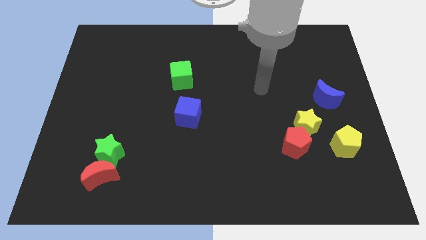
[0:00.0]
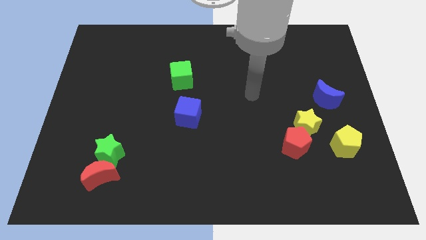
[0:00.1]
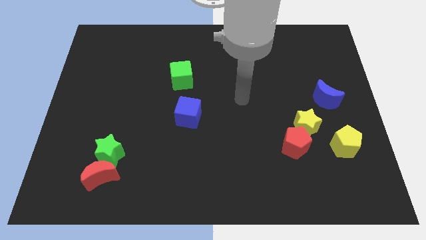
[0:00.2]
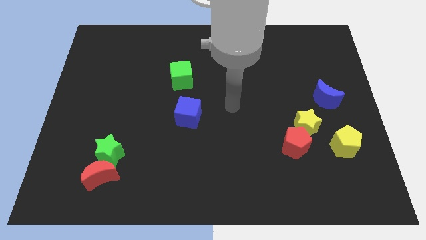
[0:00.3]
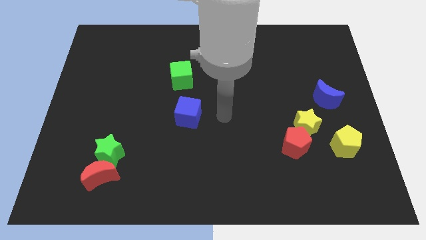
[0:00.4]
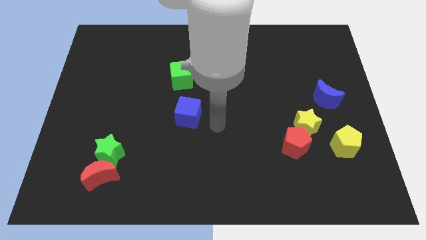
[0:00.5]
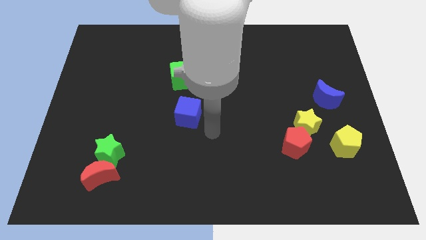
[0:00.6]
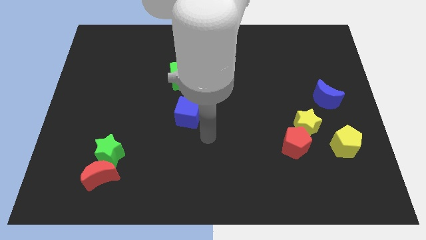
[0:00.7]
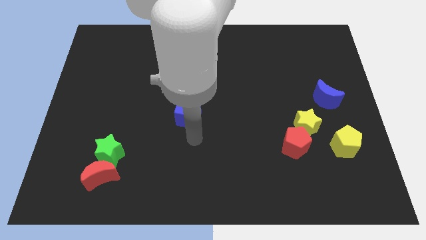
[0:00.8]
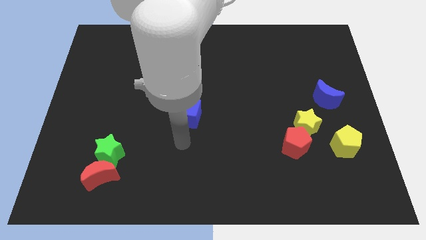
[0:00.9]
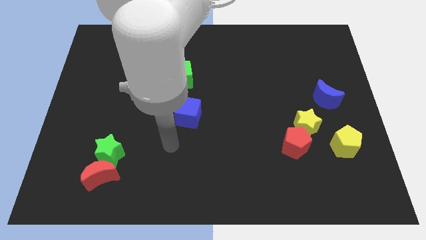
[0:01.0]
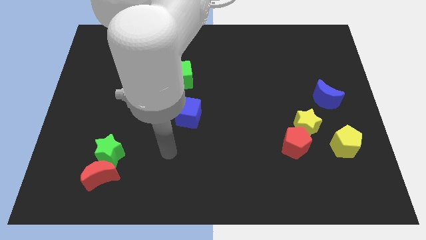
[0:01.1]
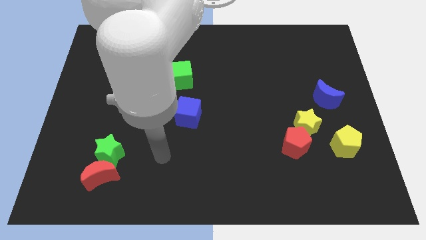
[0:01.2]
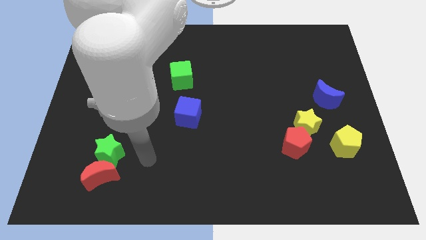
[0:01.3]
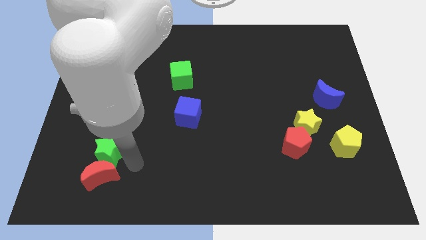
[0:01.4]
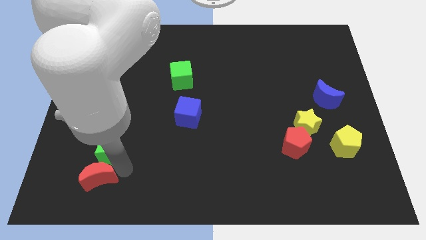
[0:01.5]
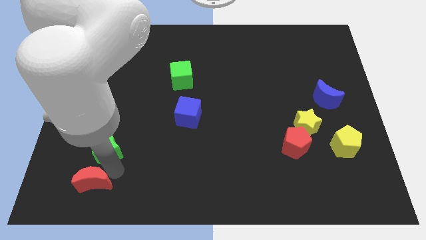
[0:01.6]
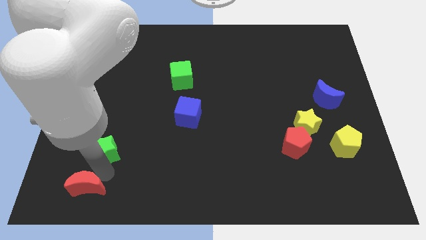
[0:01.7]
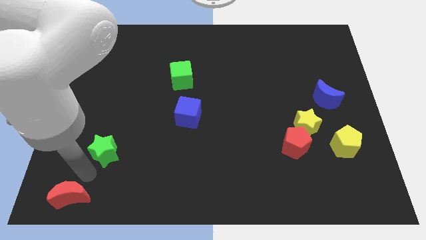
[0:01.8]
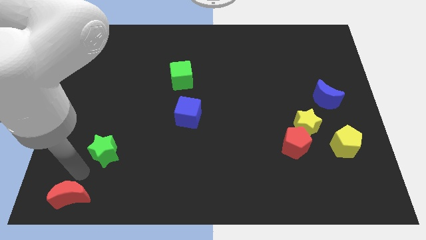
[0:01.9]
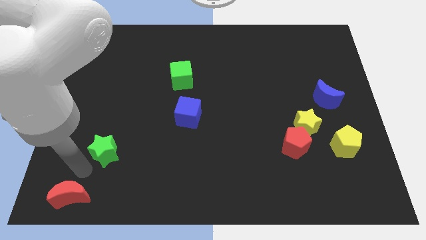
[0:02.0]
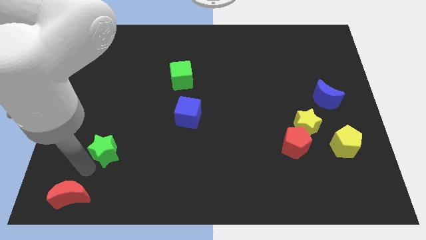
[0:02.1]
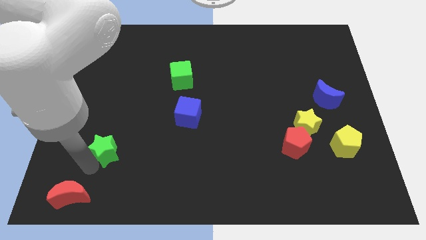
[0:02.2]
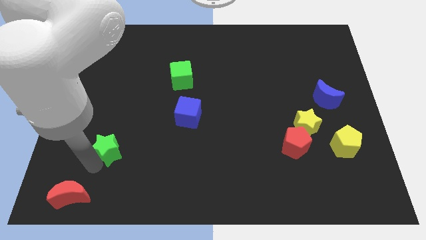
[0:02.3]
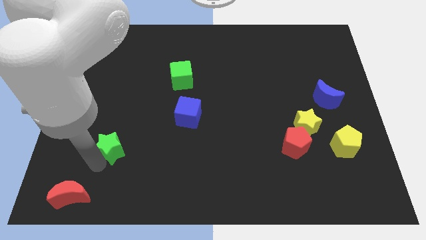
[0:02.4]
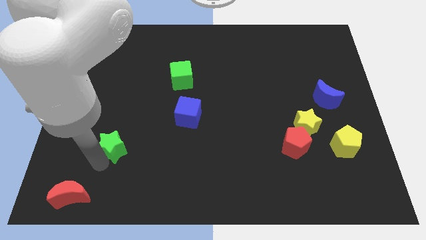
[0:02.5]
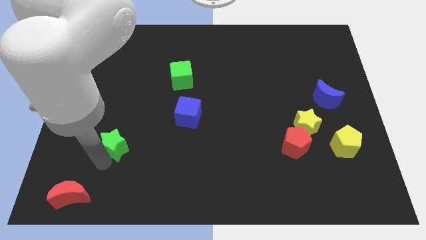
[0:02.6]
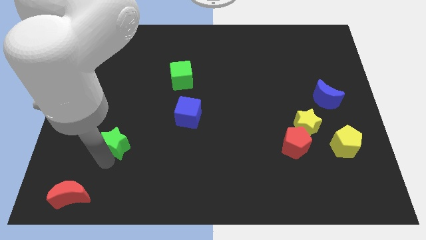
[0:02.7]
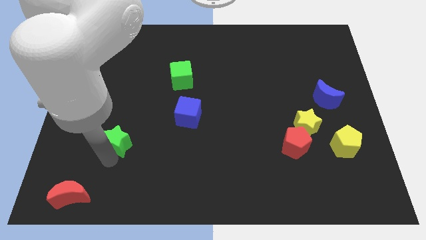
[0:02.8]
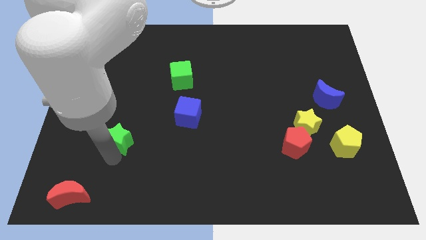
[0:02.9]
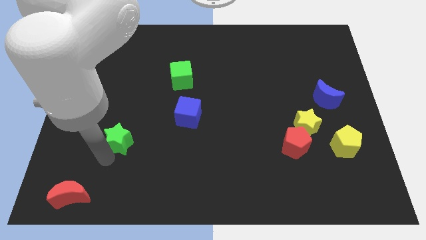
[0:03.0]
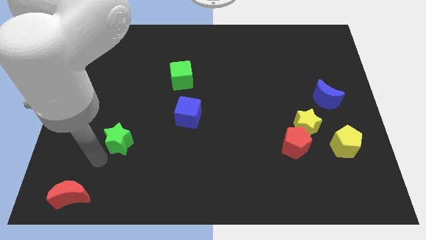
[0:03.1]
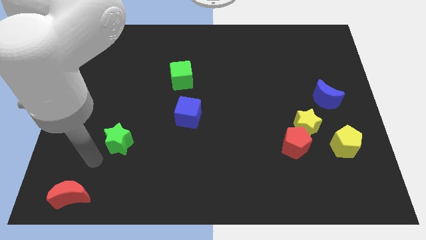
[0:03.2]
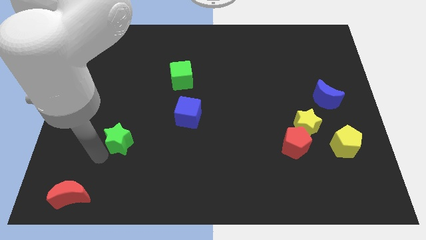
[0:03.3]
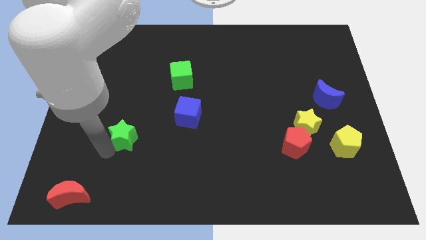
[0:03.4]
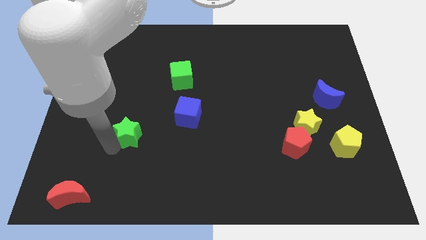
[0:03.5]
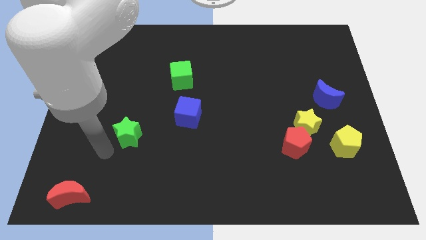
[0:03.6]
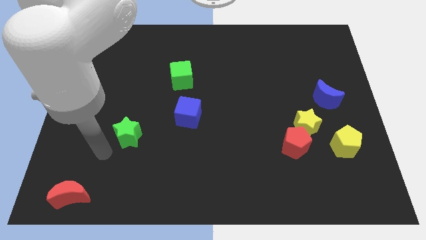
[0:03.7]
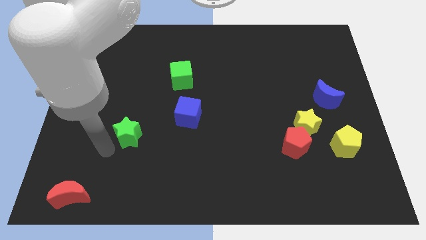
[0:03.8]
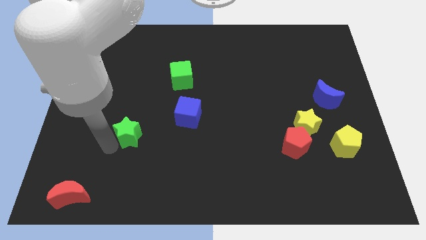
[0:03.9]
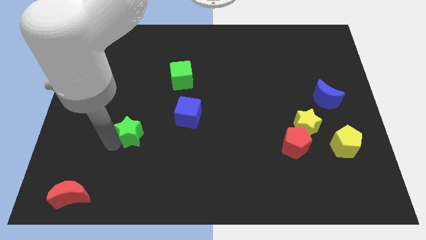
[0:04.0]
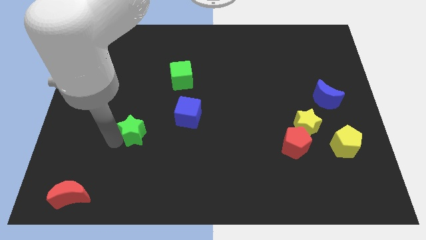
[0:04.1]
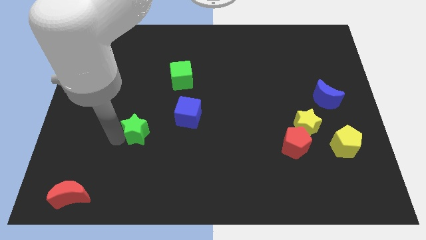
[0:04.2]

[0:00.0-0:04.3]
slide the green star up and to the right diagonally a little bit

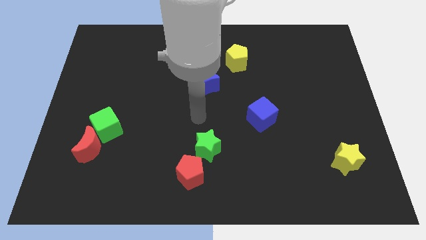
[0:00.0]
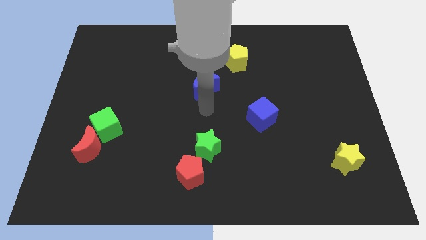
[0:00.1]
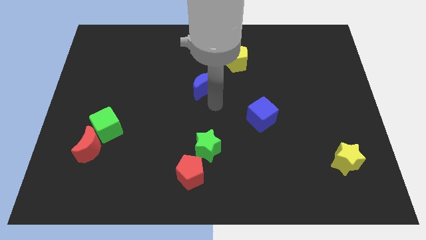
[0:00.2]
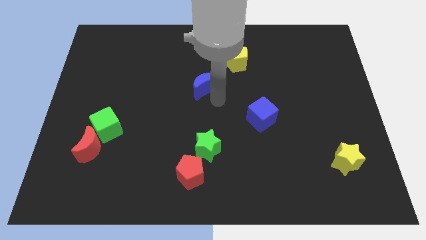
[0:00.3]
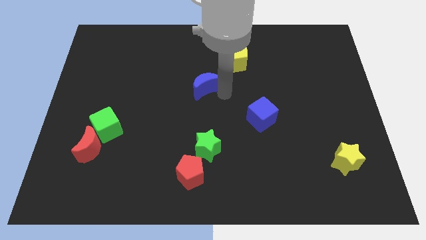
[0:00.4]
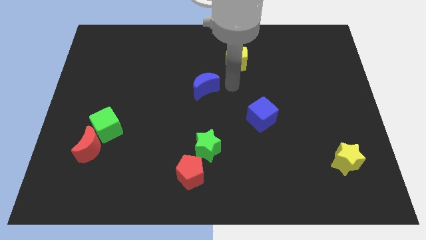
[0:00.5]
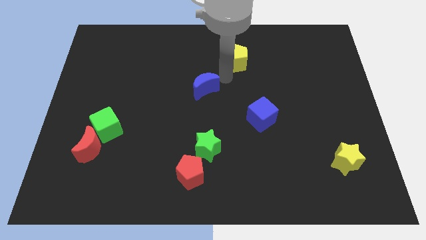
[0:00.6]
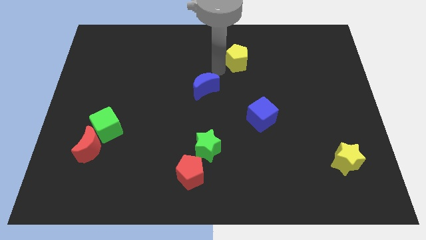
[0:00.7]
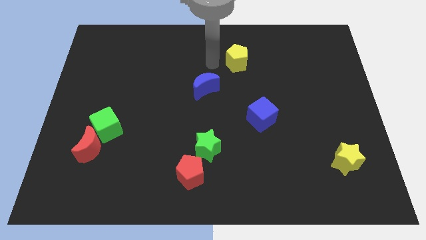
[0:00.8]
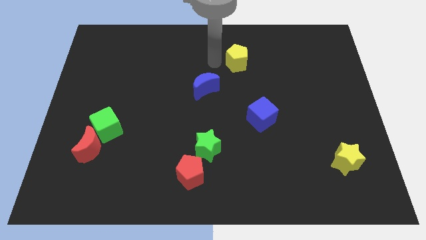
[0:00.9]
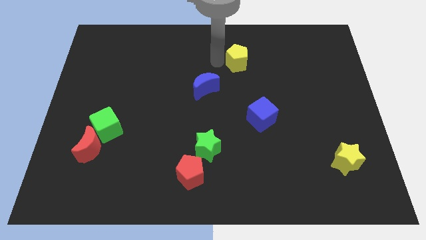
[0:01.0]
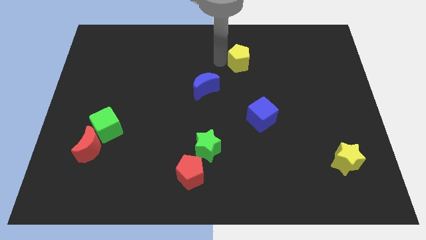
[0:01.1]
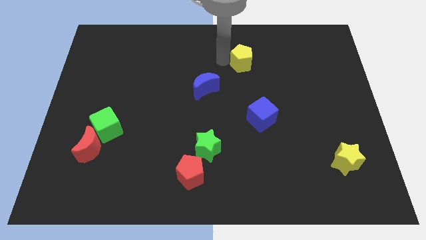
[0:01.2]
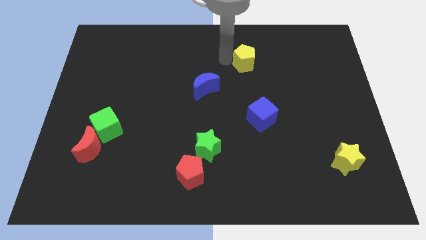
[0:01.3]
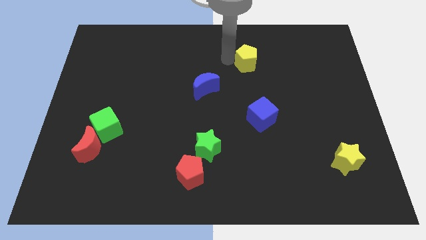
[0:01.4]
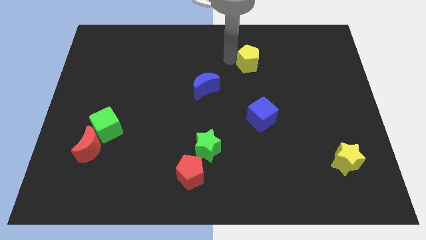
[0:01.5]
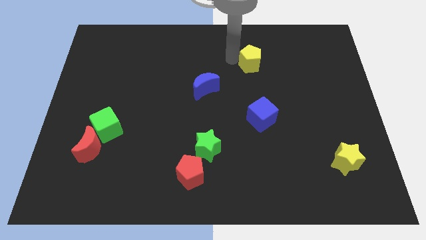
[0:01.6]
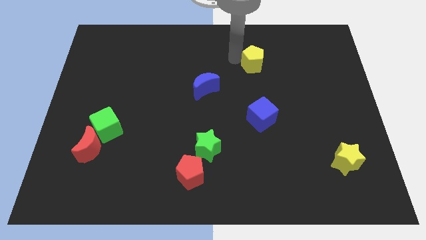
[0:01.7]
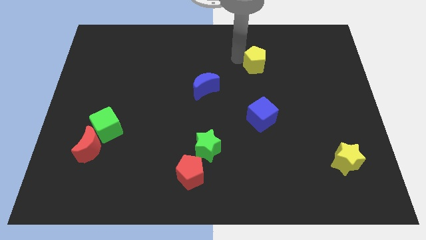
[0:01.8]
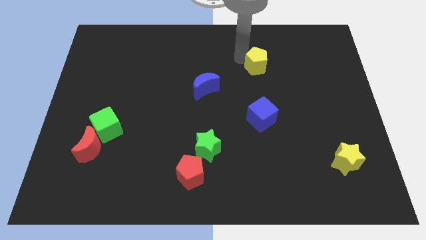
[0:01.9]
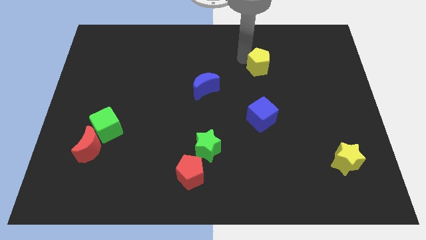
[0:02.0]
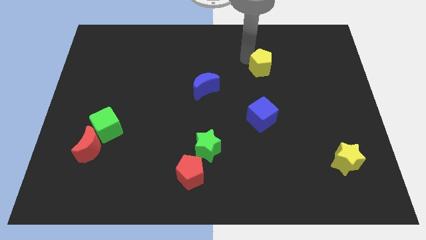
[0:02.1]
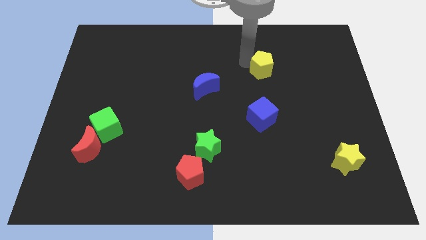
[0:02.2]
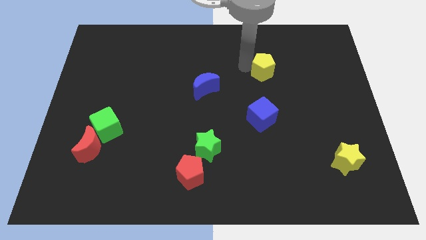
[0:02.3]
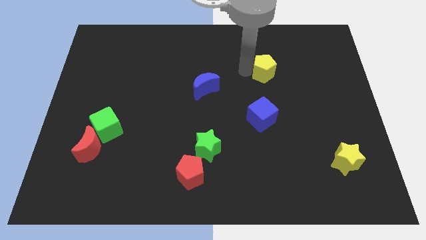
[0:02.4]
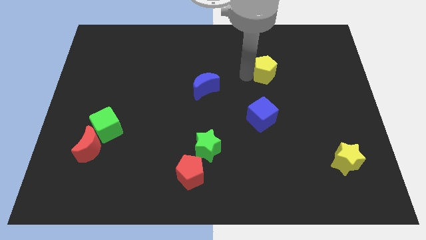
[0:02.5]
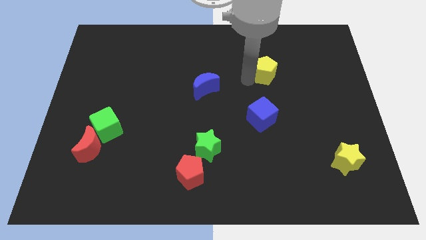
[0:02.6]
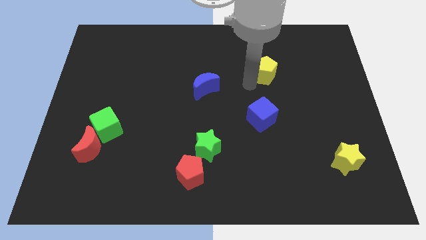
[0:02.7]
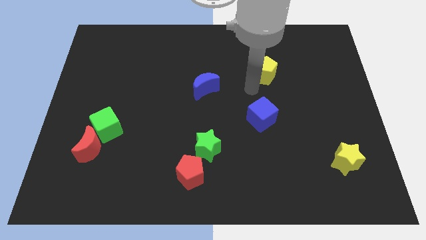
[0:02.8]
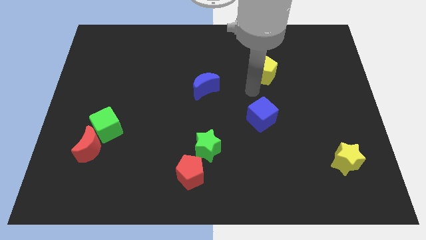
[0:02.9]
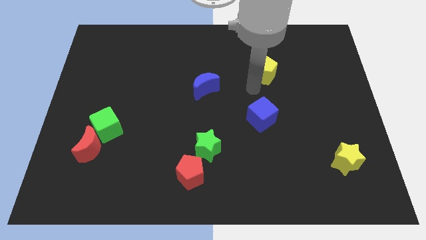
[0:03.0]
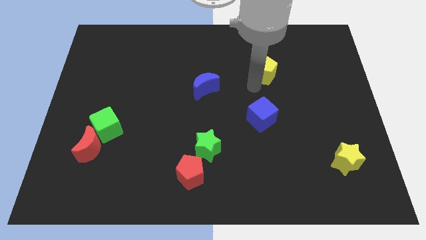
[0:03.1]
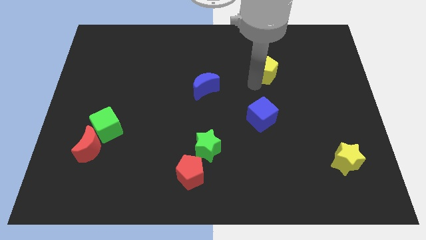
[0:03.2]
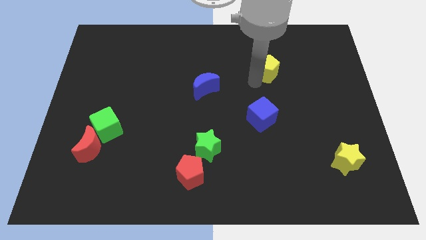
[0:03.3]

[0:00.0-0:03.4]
slightly move the yellow pentagon to the right

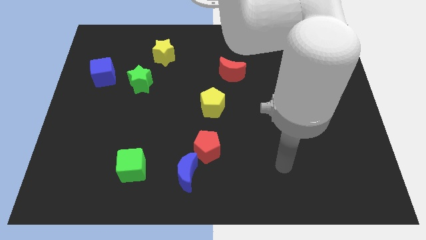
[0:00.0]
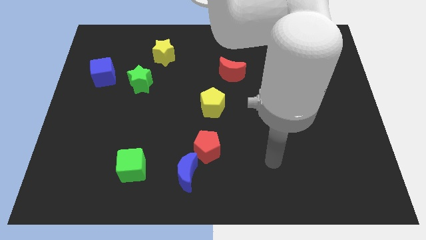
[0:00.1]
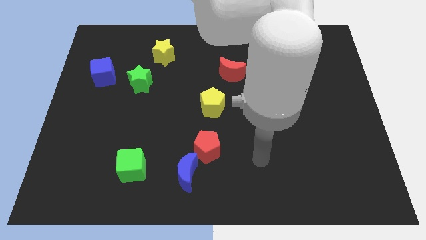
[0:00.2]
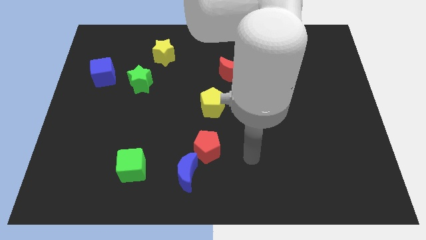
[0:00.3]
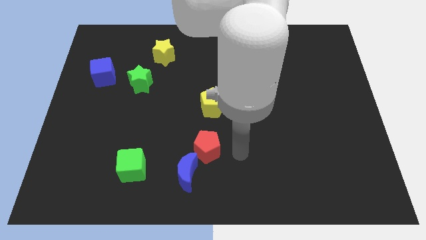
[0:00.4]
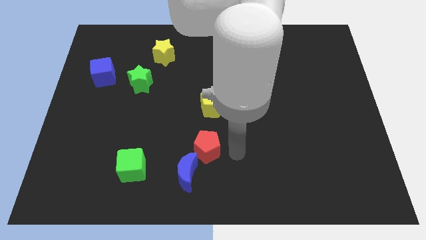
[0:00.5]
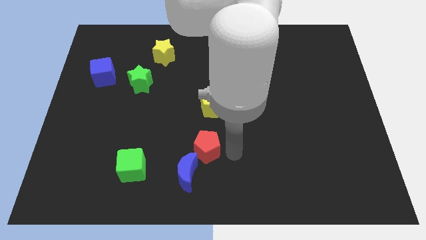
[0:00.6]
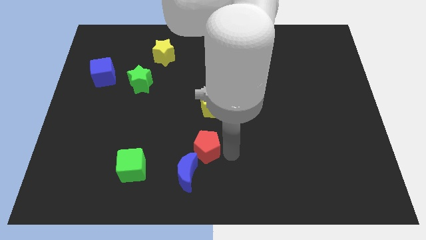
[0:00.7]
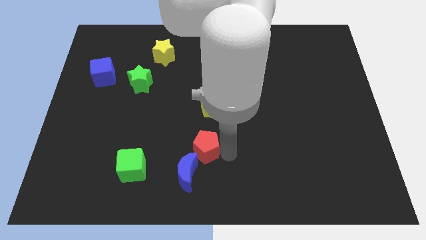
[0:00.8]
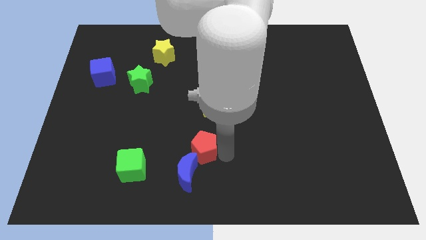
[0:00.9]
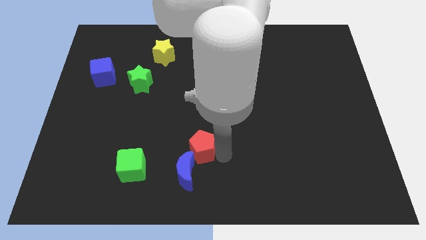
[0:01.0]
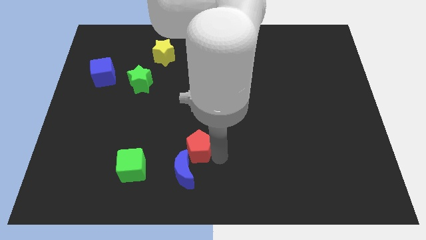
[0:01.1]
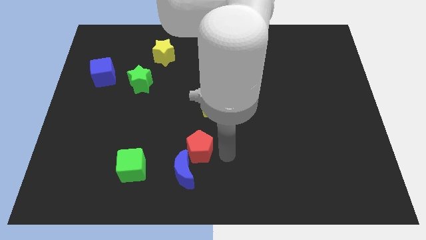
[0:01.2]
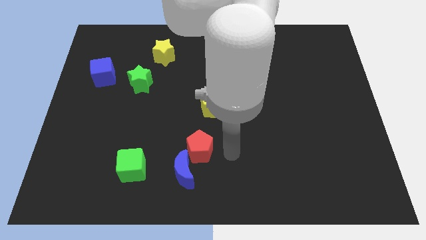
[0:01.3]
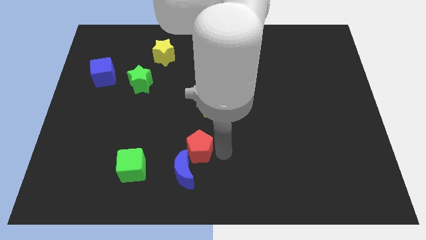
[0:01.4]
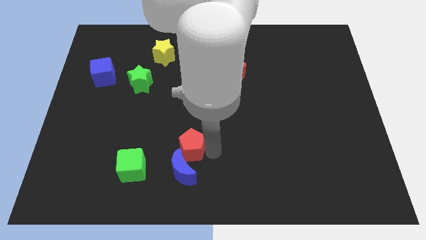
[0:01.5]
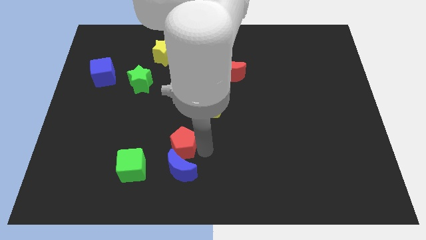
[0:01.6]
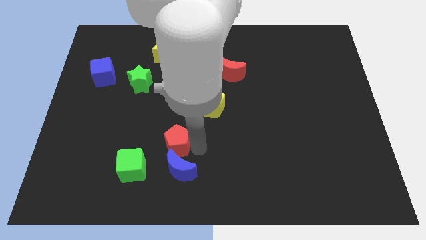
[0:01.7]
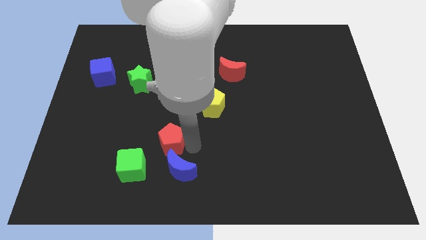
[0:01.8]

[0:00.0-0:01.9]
push the red pentagon a bit to the left
